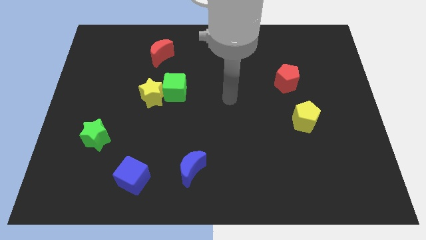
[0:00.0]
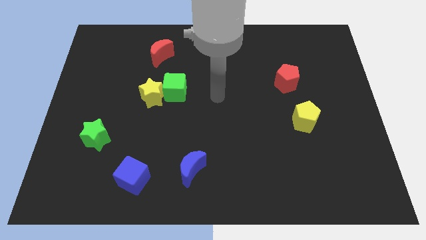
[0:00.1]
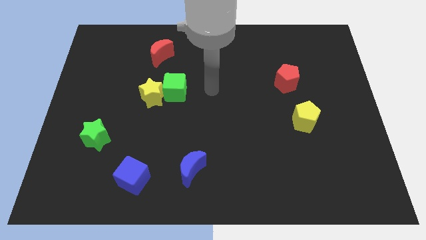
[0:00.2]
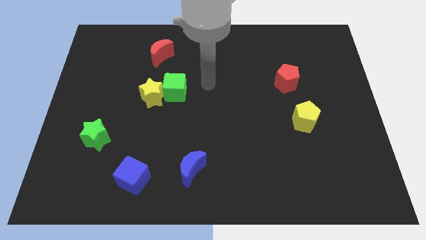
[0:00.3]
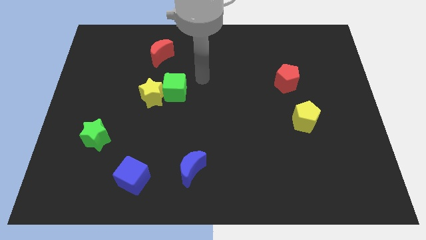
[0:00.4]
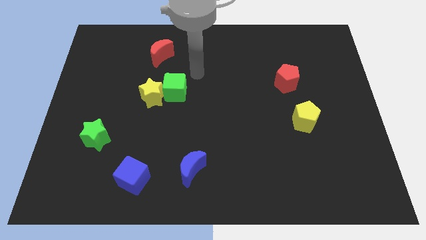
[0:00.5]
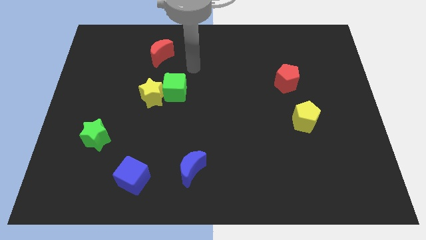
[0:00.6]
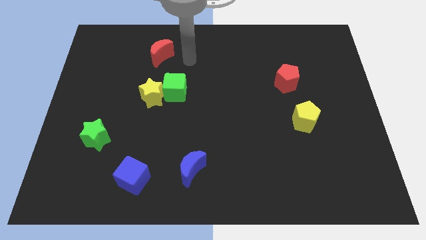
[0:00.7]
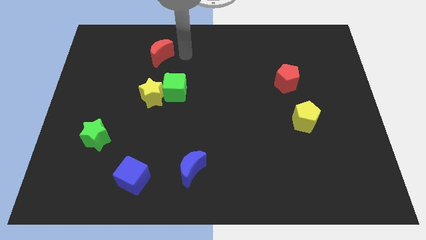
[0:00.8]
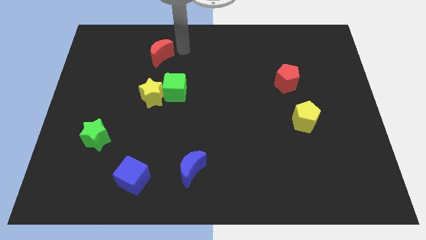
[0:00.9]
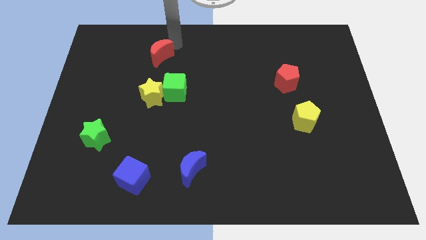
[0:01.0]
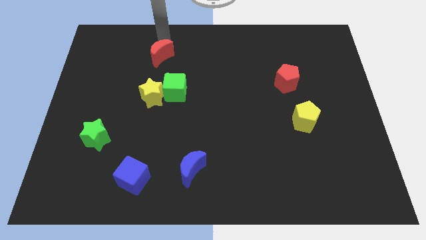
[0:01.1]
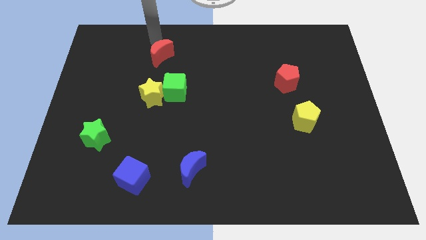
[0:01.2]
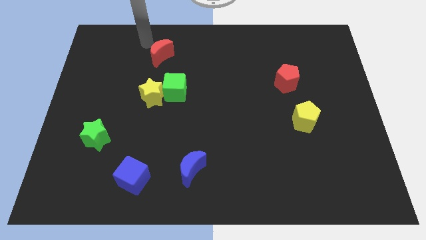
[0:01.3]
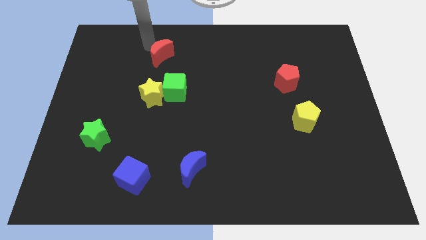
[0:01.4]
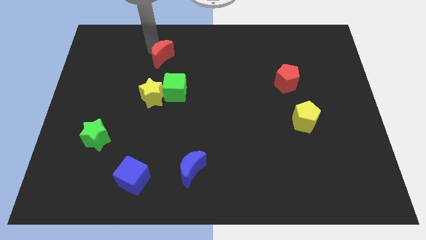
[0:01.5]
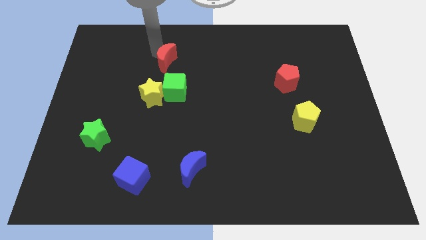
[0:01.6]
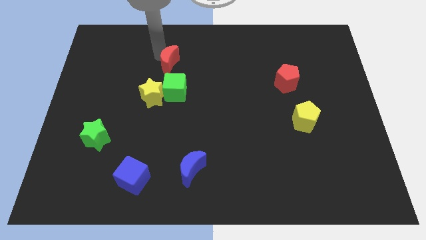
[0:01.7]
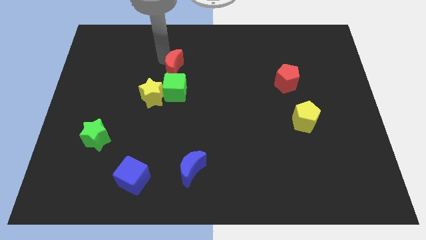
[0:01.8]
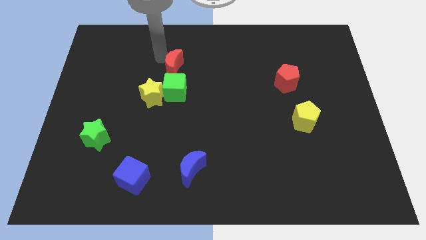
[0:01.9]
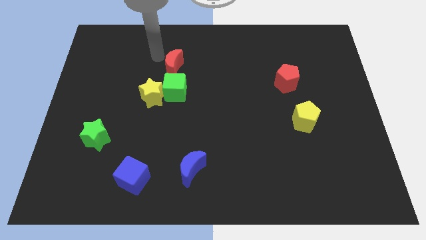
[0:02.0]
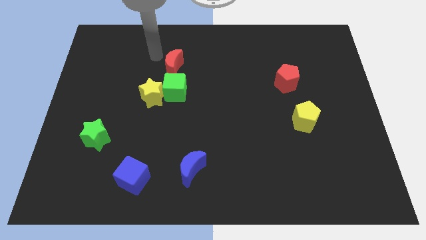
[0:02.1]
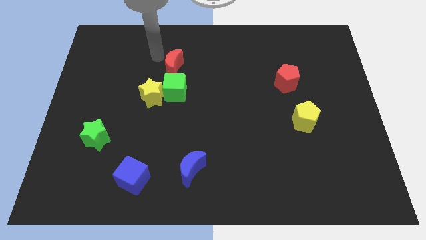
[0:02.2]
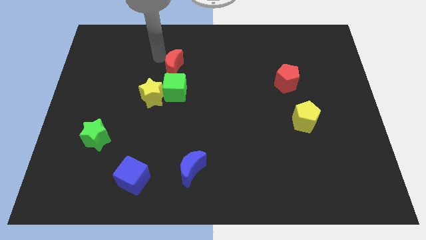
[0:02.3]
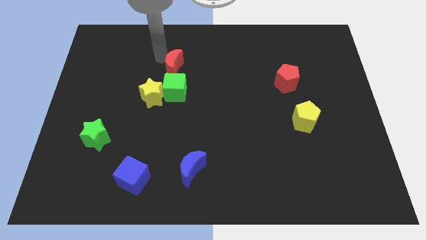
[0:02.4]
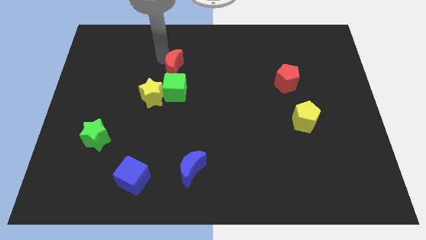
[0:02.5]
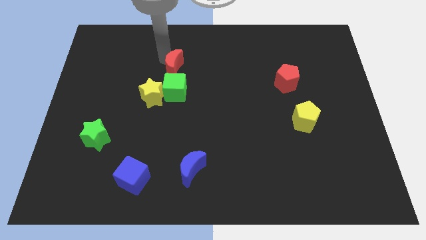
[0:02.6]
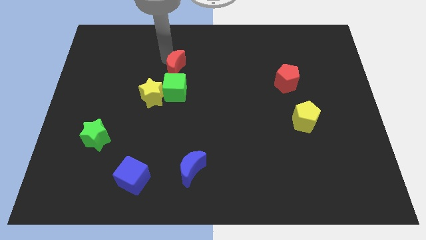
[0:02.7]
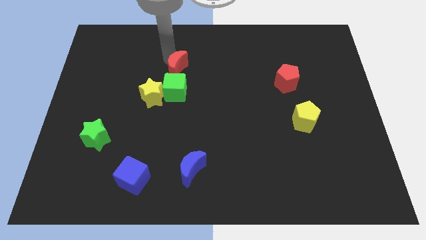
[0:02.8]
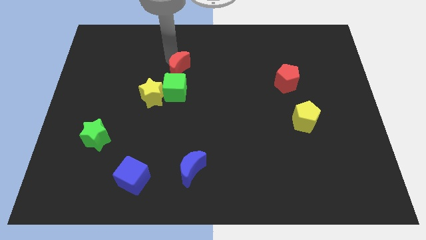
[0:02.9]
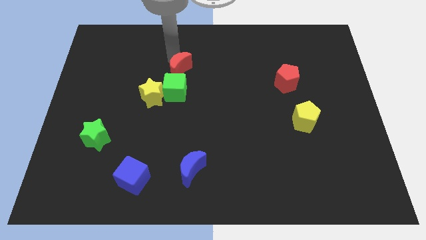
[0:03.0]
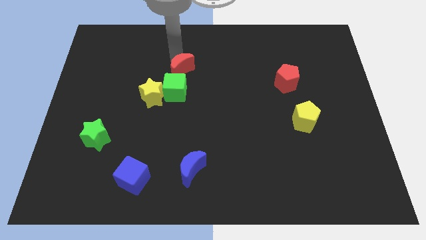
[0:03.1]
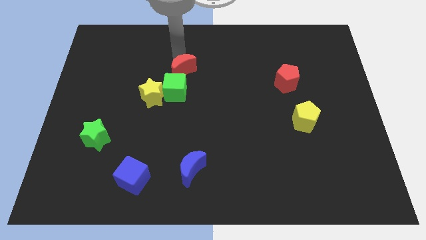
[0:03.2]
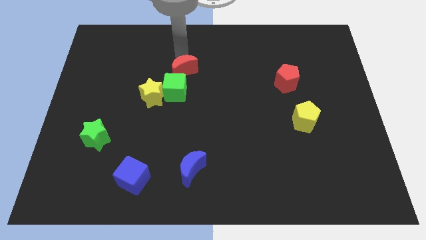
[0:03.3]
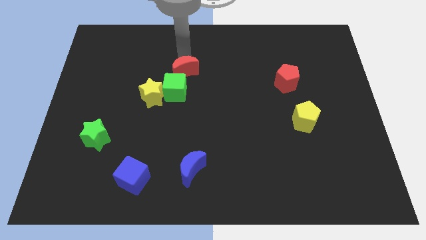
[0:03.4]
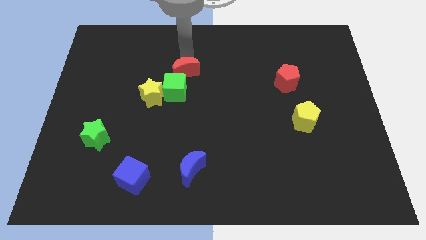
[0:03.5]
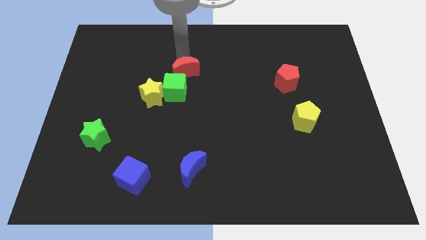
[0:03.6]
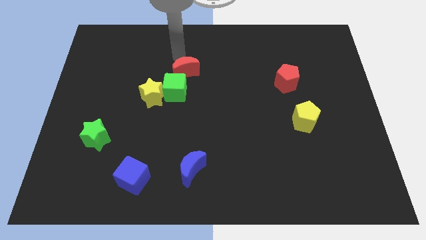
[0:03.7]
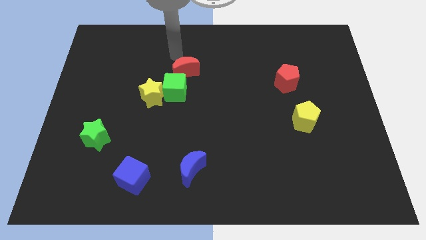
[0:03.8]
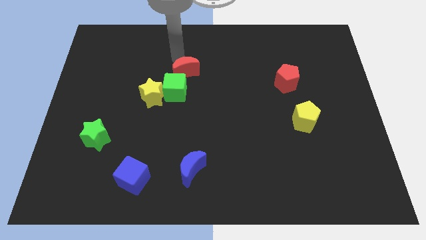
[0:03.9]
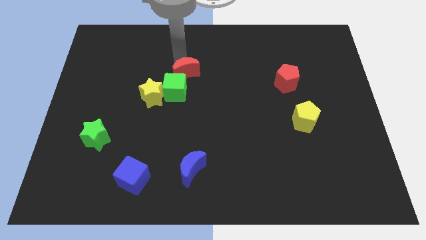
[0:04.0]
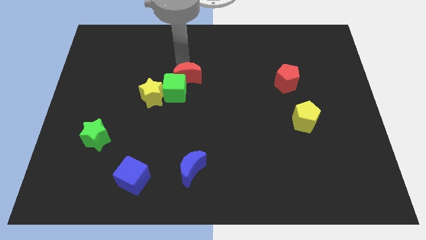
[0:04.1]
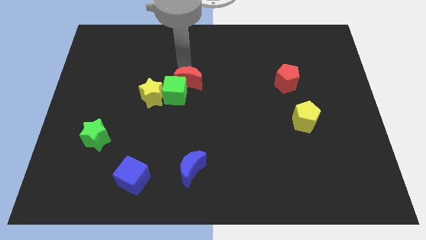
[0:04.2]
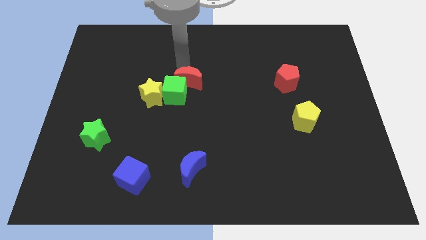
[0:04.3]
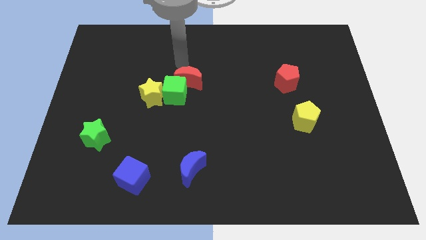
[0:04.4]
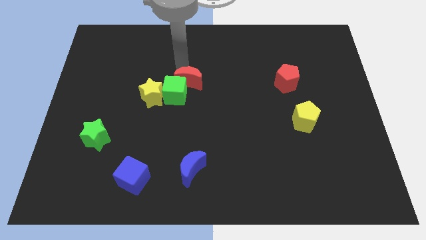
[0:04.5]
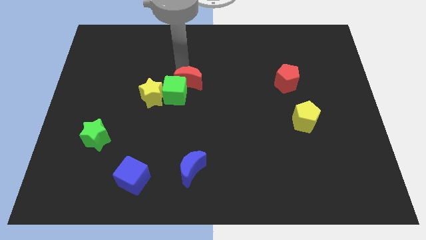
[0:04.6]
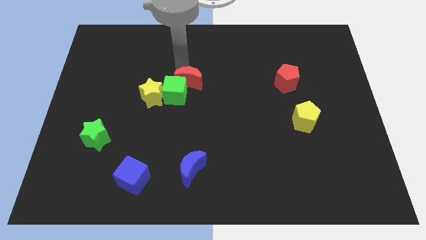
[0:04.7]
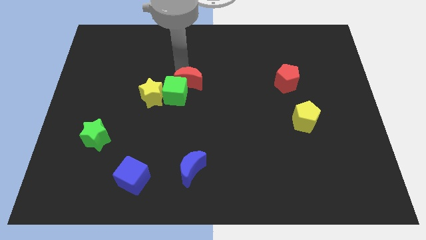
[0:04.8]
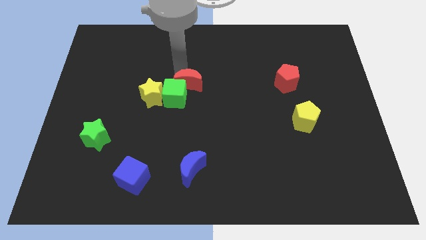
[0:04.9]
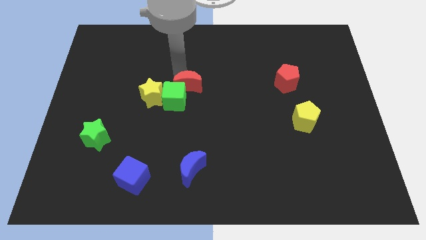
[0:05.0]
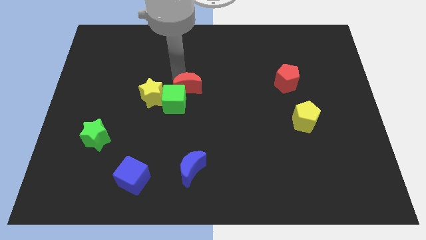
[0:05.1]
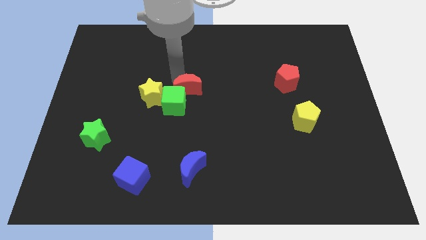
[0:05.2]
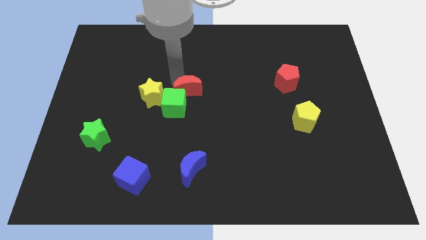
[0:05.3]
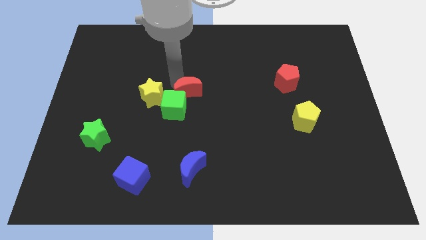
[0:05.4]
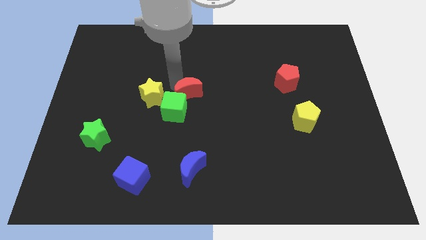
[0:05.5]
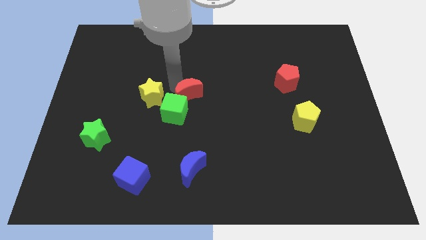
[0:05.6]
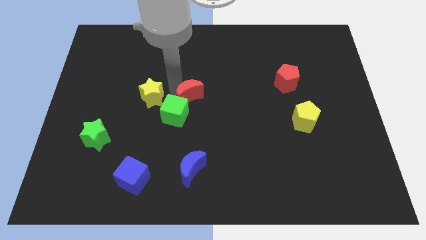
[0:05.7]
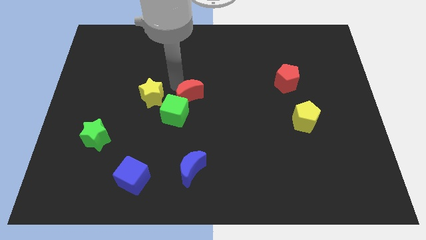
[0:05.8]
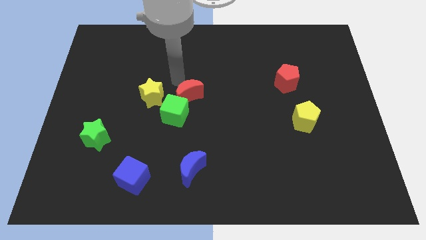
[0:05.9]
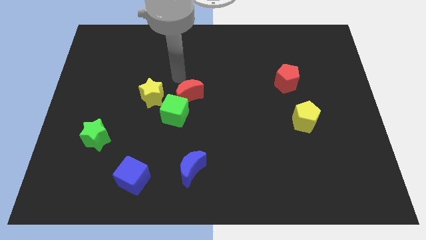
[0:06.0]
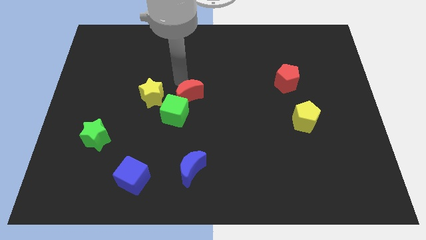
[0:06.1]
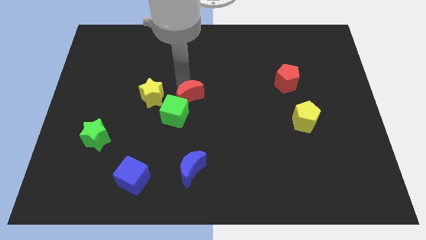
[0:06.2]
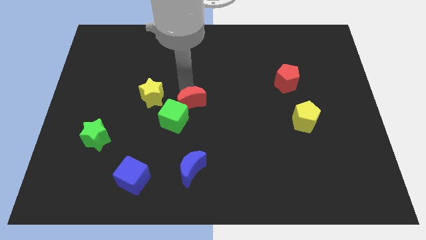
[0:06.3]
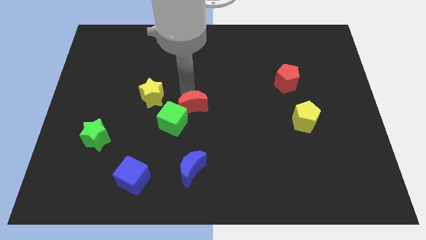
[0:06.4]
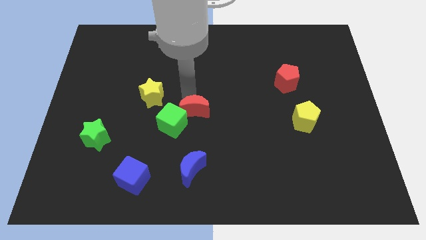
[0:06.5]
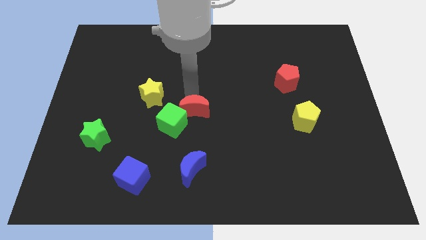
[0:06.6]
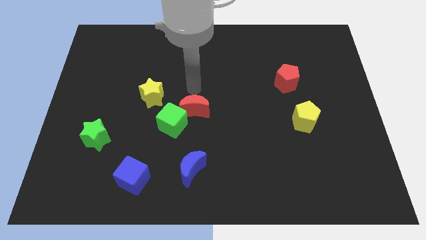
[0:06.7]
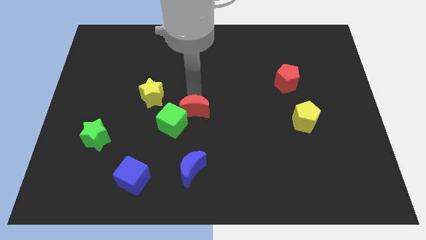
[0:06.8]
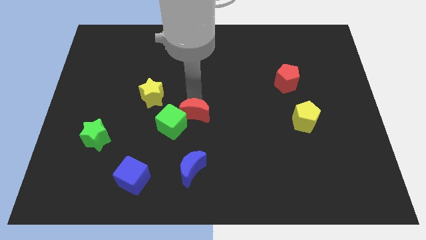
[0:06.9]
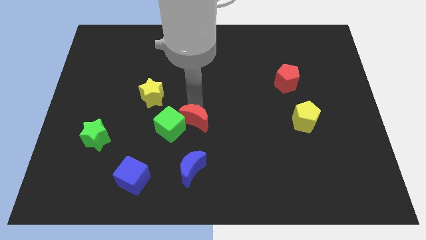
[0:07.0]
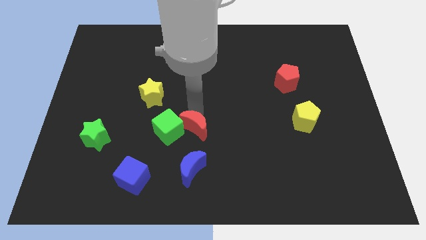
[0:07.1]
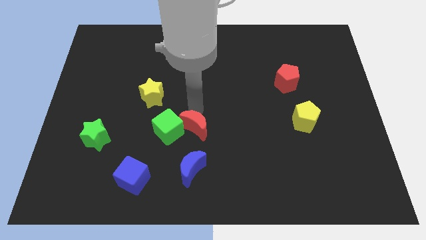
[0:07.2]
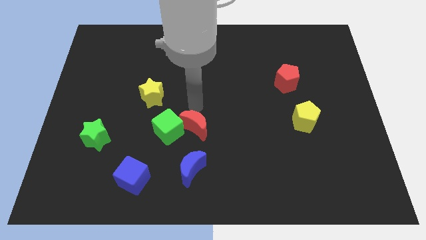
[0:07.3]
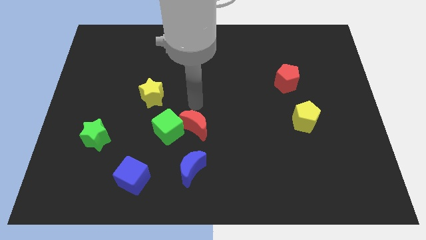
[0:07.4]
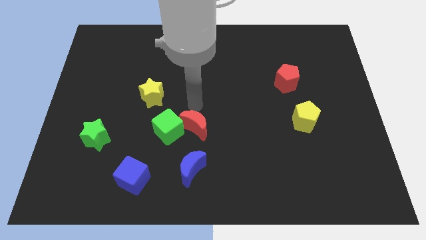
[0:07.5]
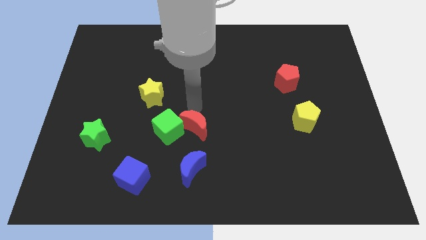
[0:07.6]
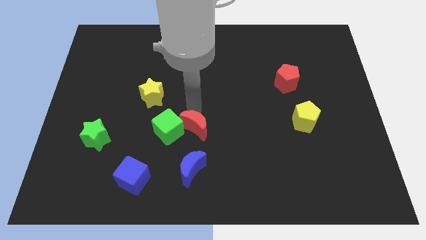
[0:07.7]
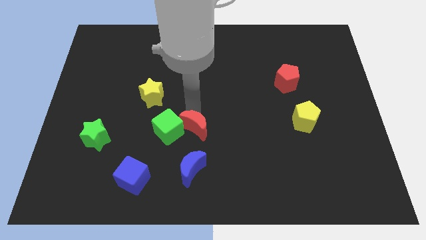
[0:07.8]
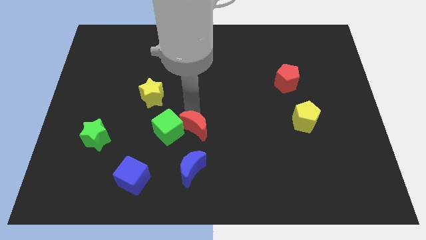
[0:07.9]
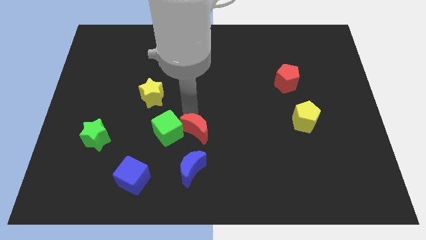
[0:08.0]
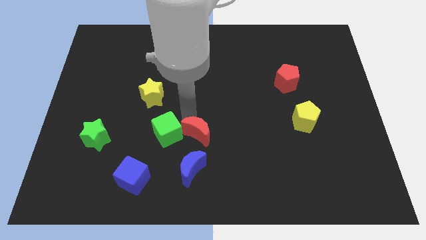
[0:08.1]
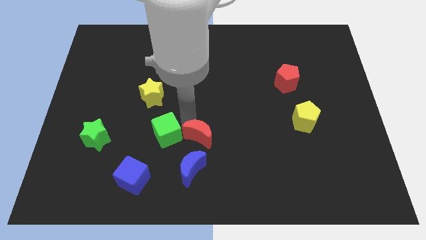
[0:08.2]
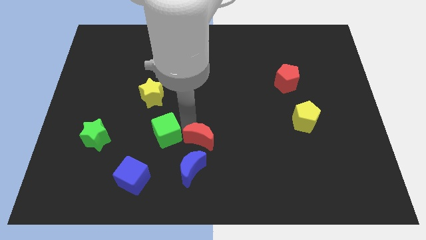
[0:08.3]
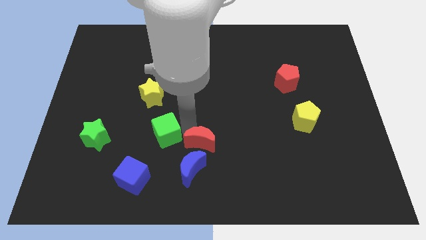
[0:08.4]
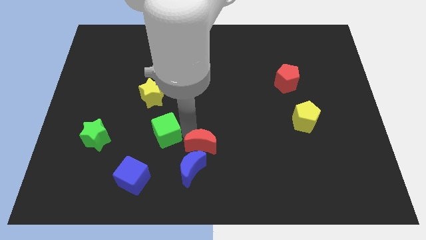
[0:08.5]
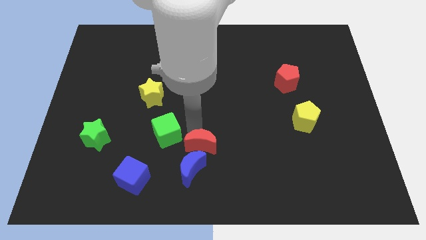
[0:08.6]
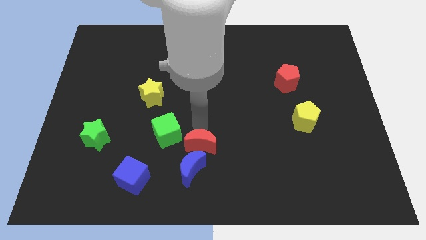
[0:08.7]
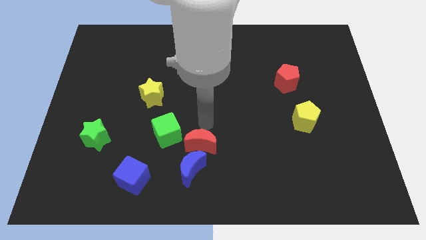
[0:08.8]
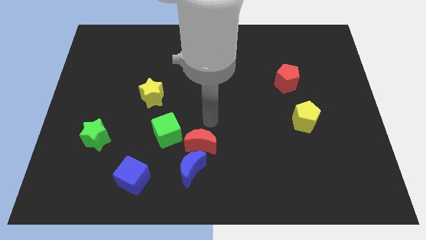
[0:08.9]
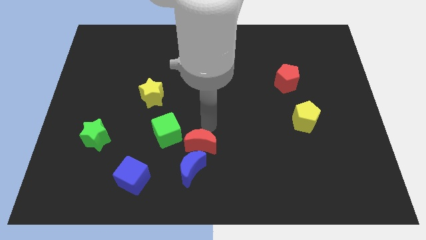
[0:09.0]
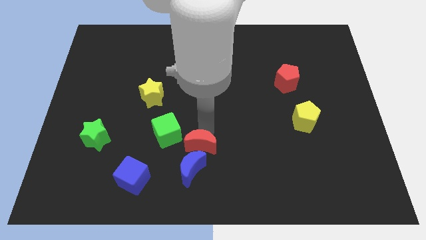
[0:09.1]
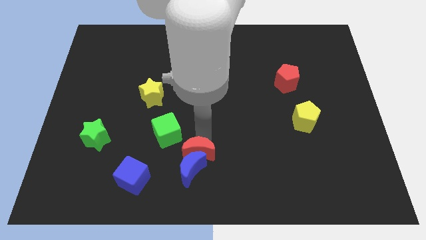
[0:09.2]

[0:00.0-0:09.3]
push the red moon towards the blue moon
